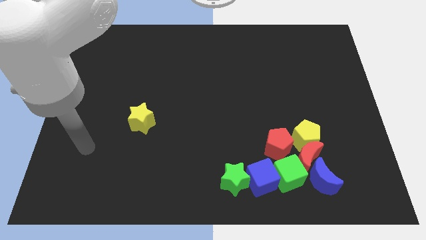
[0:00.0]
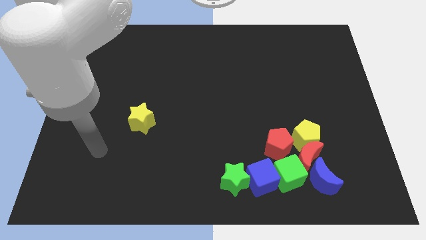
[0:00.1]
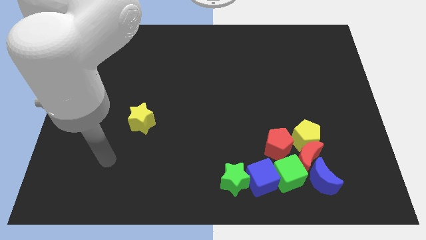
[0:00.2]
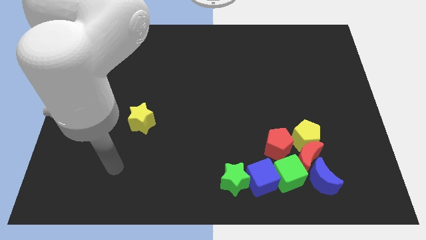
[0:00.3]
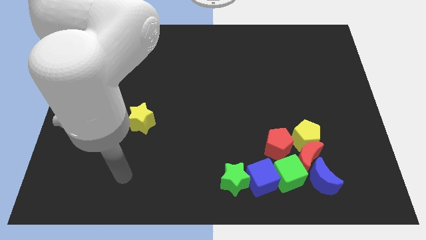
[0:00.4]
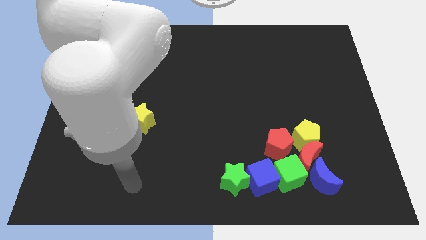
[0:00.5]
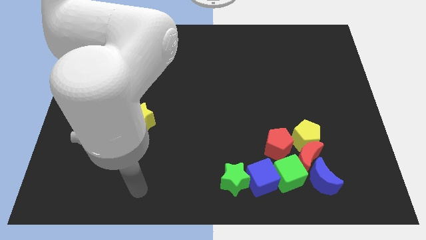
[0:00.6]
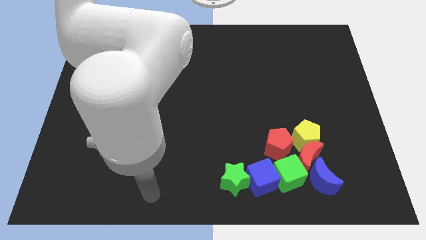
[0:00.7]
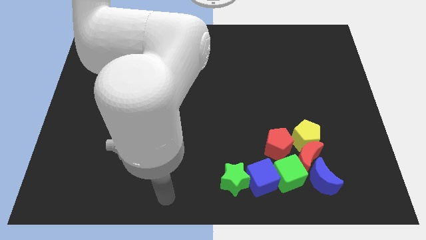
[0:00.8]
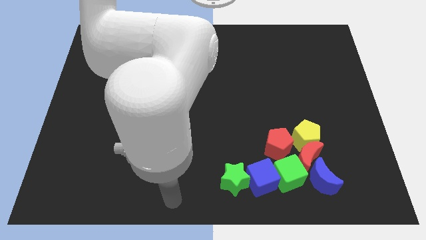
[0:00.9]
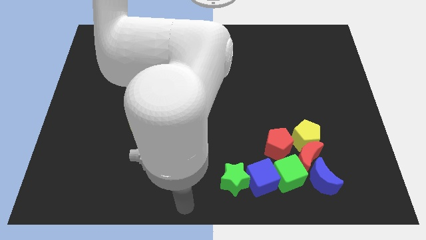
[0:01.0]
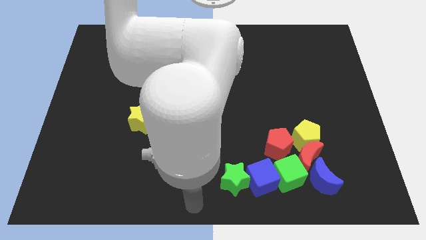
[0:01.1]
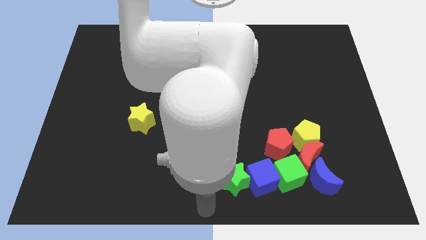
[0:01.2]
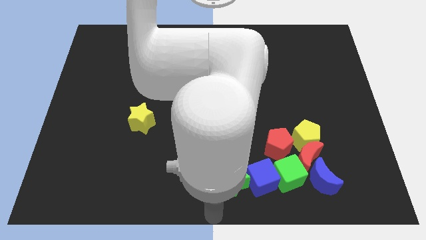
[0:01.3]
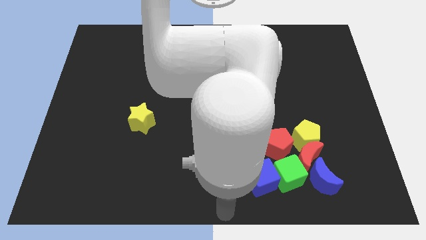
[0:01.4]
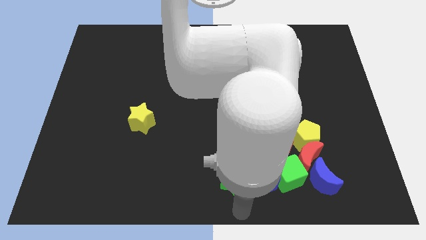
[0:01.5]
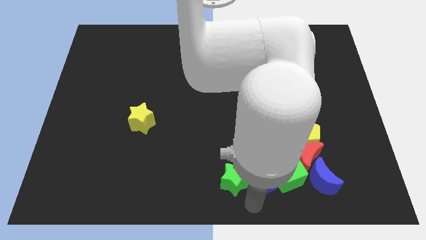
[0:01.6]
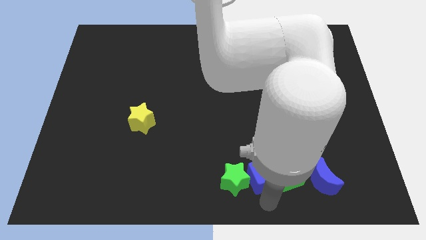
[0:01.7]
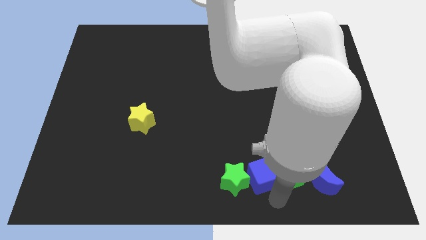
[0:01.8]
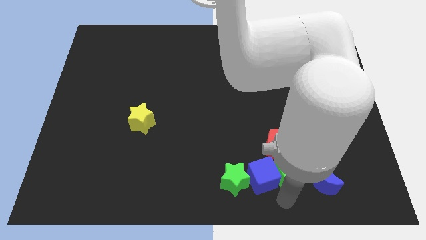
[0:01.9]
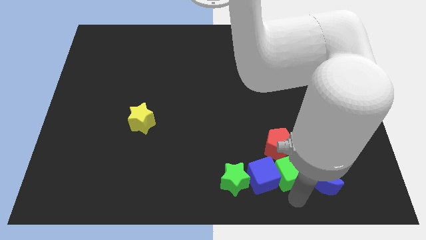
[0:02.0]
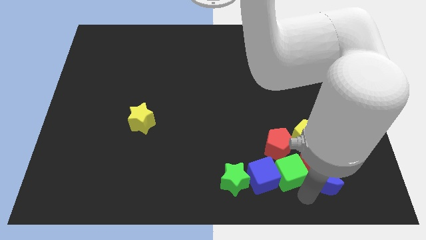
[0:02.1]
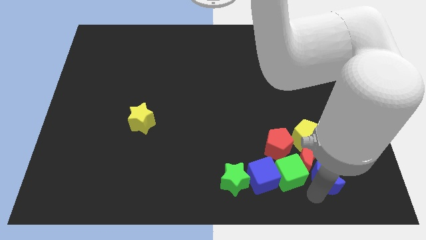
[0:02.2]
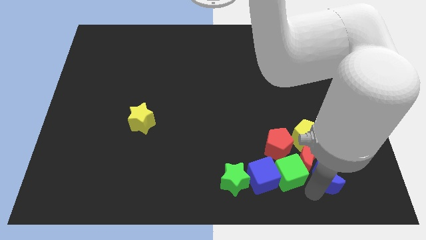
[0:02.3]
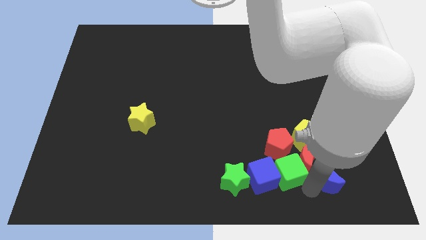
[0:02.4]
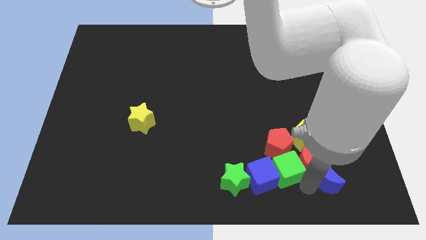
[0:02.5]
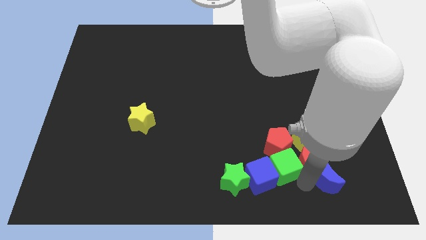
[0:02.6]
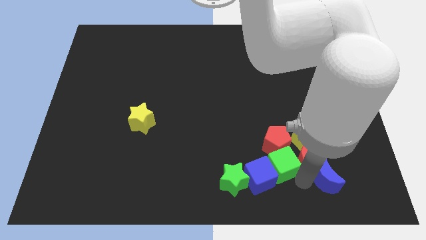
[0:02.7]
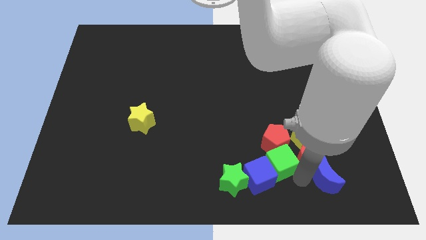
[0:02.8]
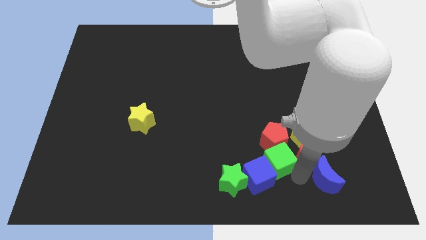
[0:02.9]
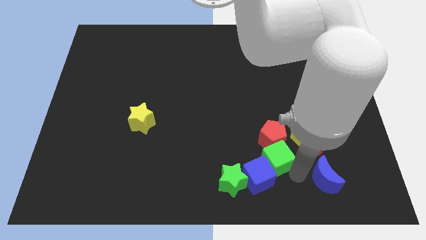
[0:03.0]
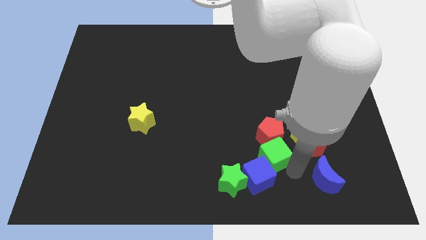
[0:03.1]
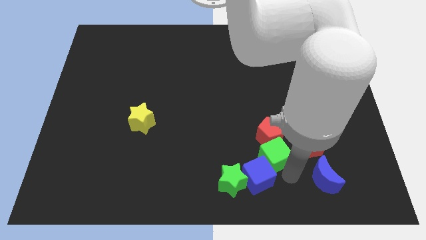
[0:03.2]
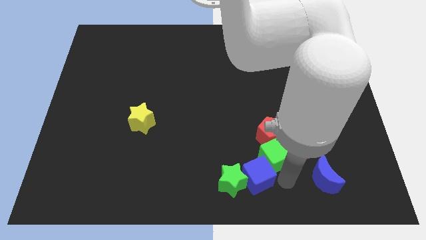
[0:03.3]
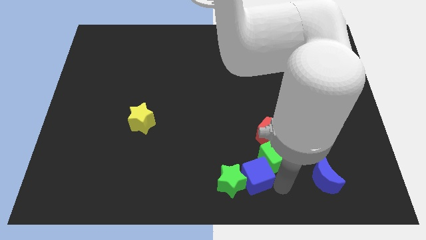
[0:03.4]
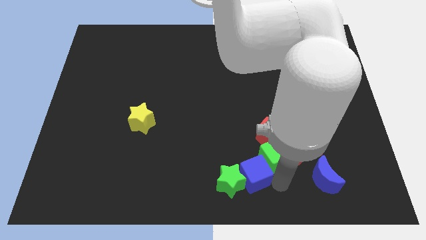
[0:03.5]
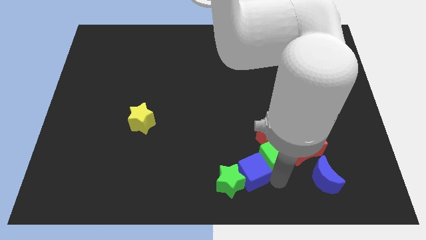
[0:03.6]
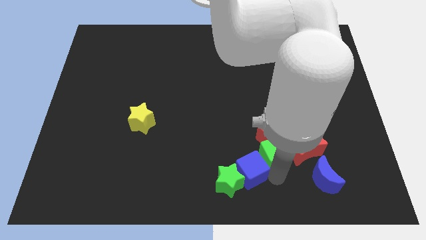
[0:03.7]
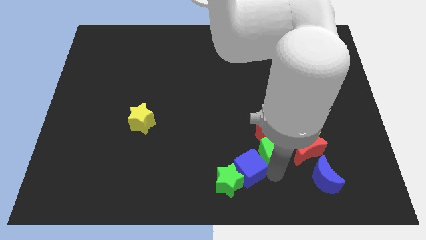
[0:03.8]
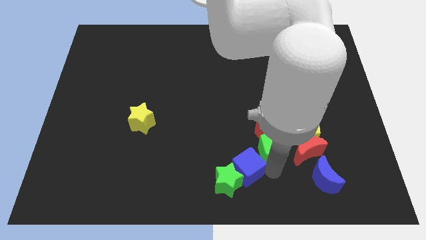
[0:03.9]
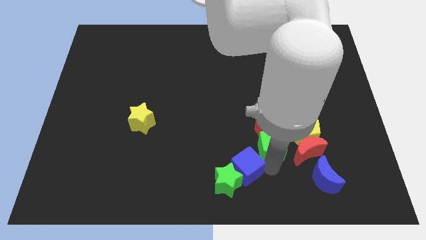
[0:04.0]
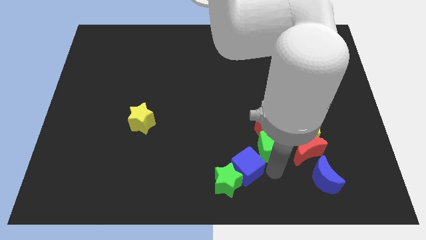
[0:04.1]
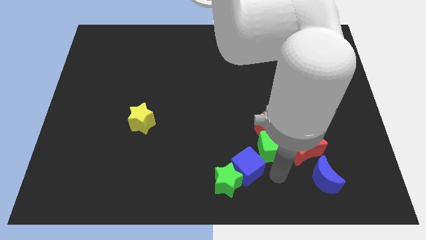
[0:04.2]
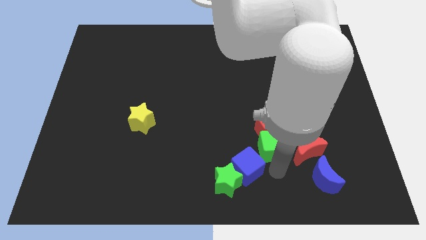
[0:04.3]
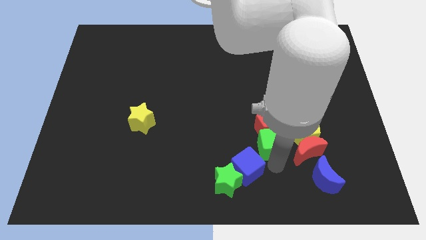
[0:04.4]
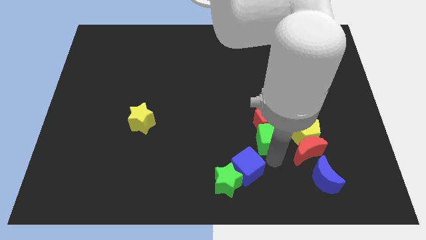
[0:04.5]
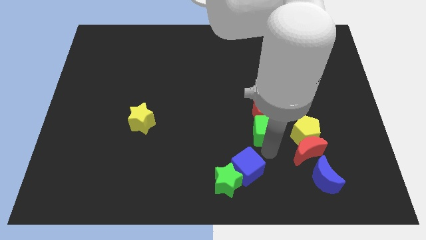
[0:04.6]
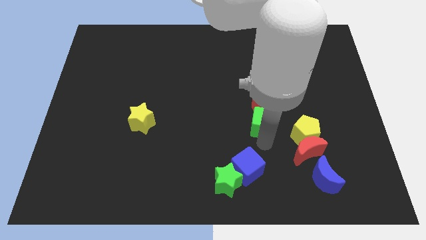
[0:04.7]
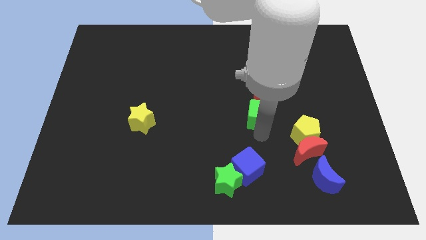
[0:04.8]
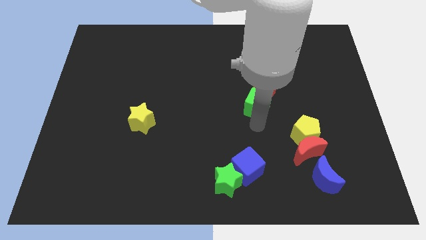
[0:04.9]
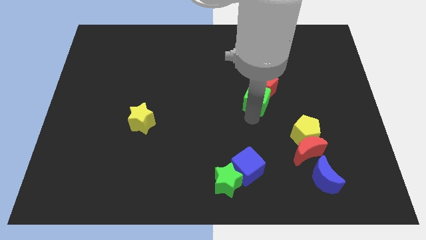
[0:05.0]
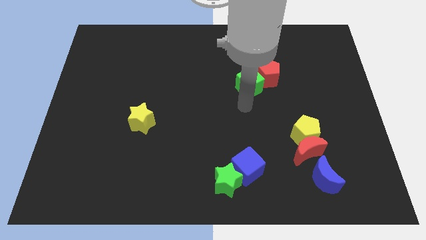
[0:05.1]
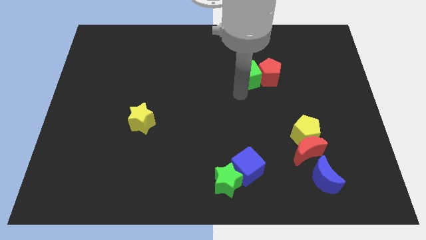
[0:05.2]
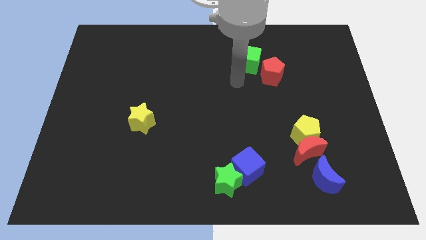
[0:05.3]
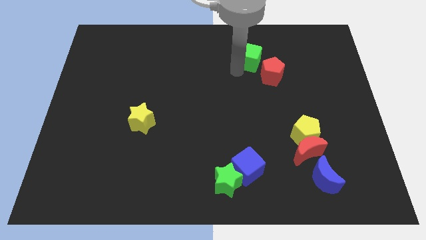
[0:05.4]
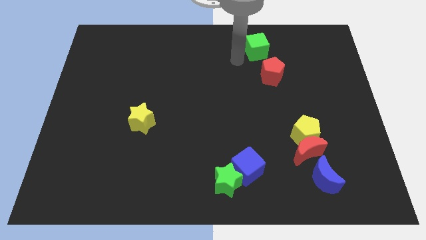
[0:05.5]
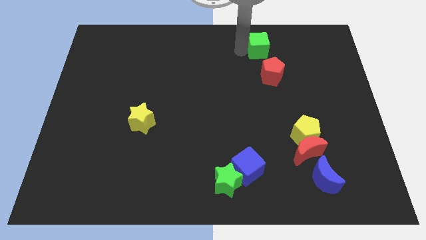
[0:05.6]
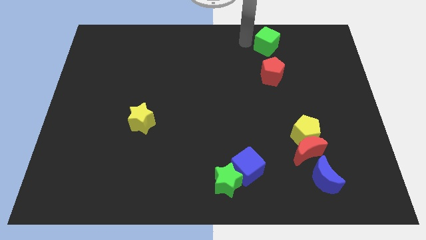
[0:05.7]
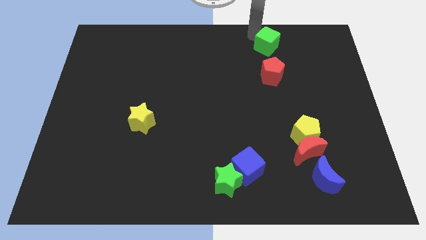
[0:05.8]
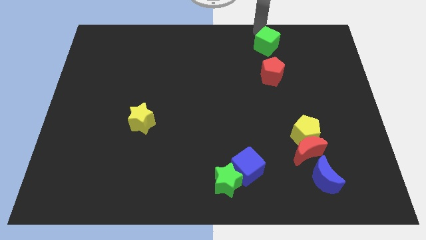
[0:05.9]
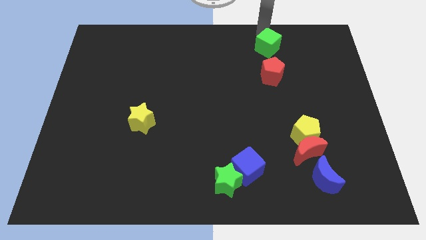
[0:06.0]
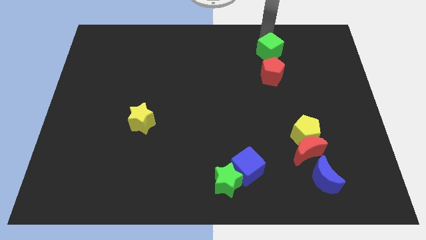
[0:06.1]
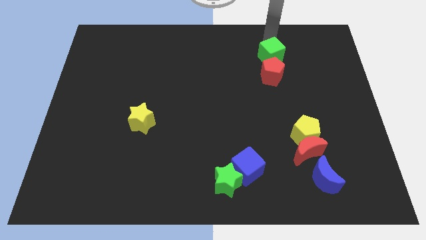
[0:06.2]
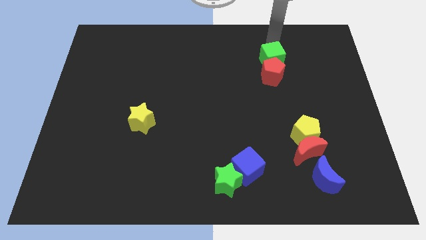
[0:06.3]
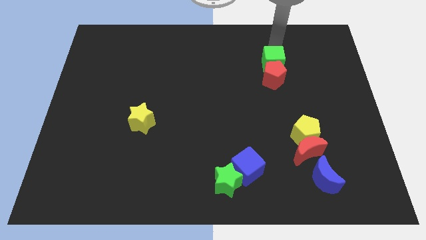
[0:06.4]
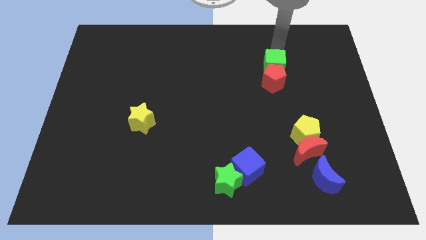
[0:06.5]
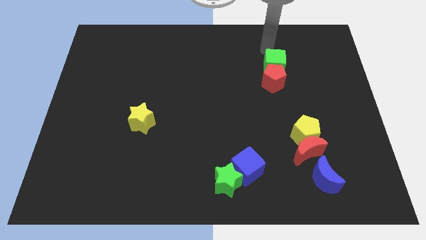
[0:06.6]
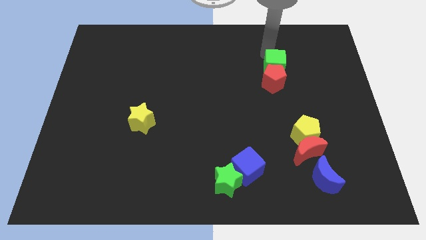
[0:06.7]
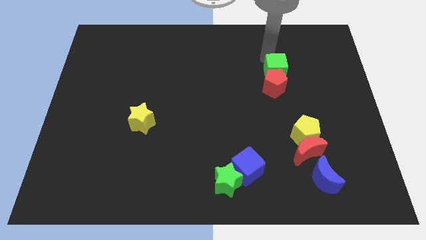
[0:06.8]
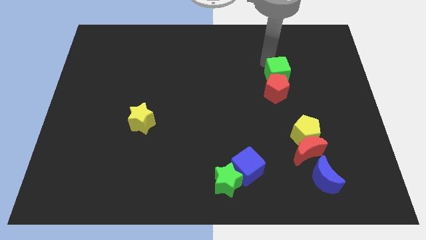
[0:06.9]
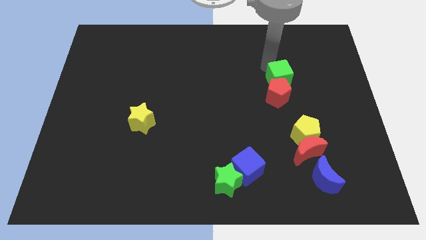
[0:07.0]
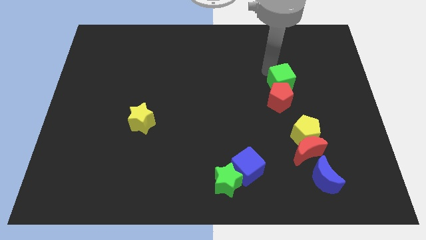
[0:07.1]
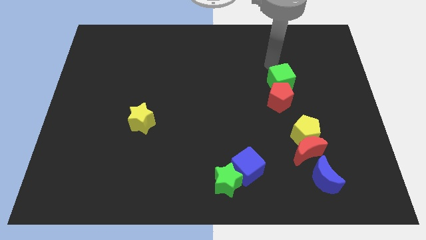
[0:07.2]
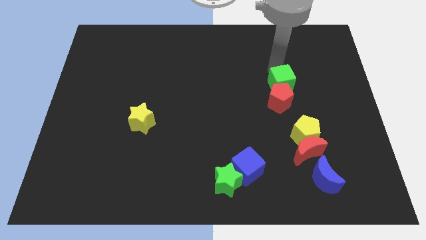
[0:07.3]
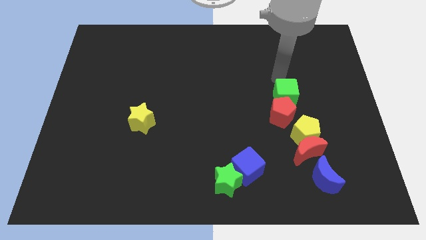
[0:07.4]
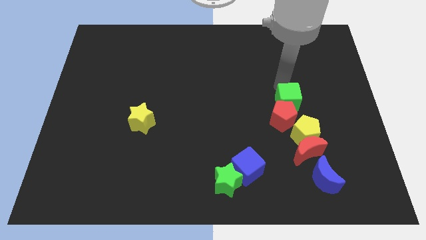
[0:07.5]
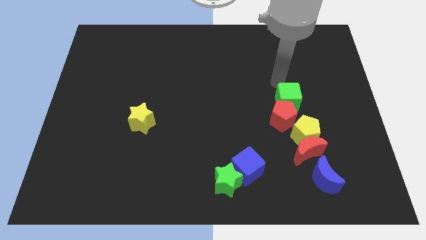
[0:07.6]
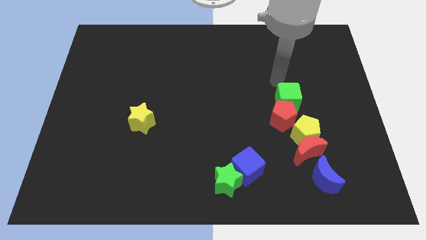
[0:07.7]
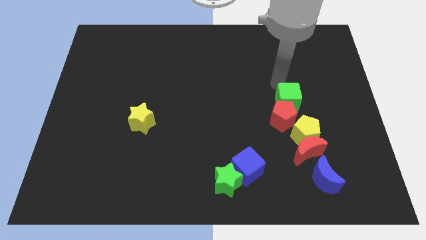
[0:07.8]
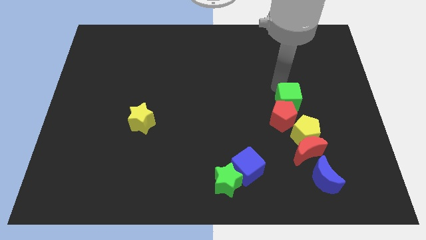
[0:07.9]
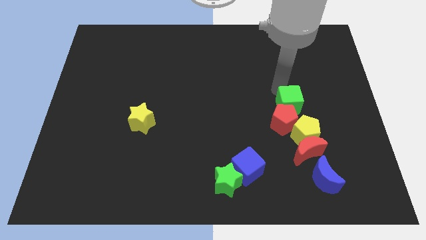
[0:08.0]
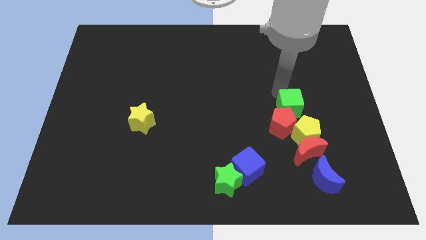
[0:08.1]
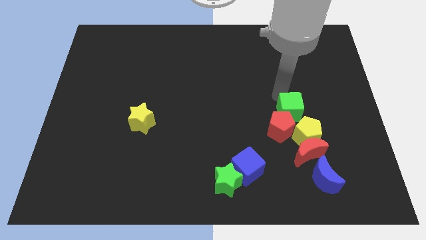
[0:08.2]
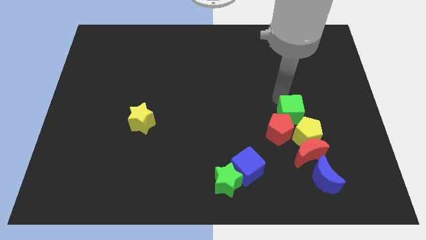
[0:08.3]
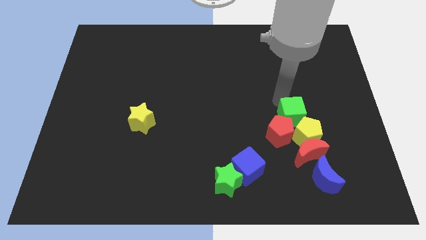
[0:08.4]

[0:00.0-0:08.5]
move the green cube towards the yellow pentagon
